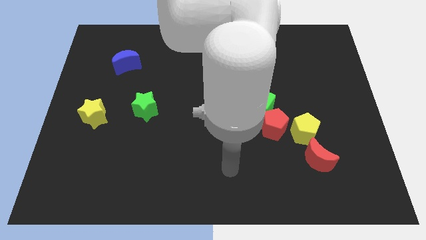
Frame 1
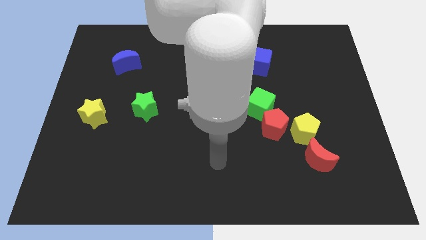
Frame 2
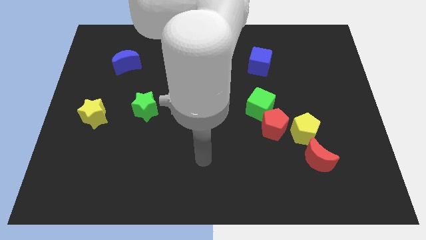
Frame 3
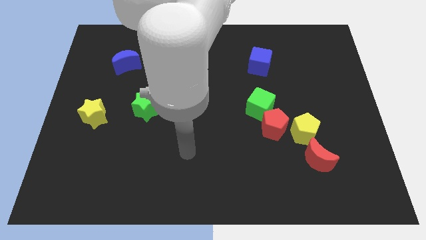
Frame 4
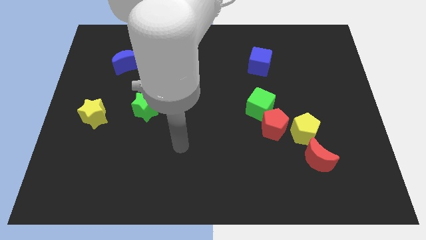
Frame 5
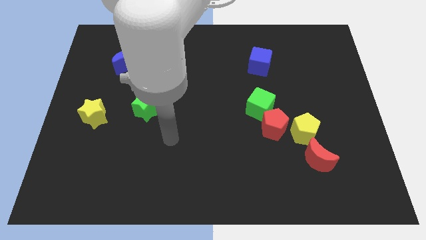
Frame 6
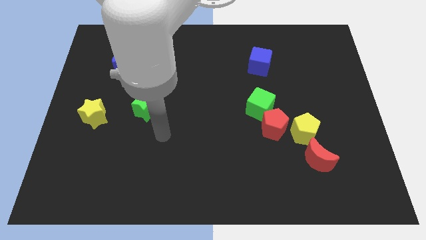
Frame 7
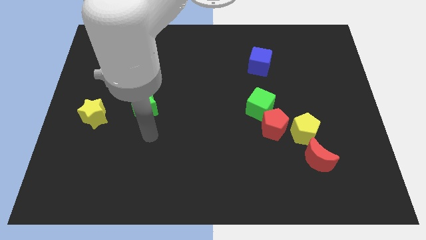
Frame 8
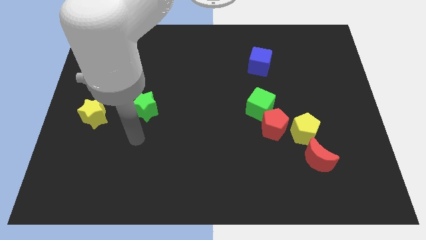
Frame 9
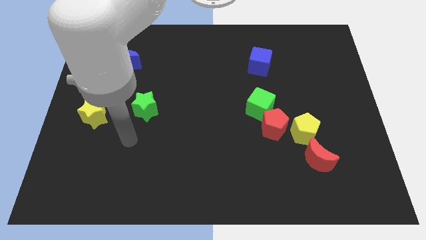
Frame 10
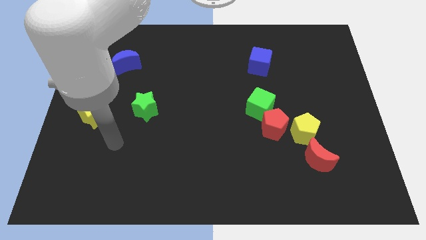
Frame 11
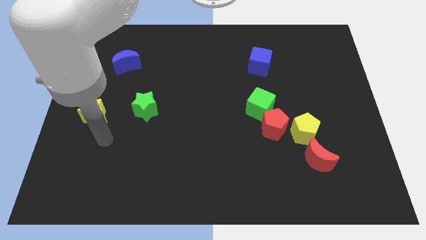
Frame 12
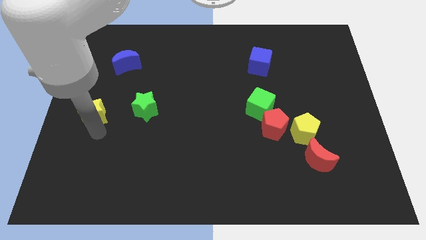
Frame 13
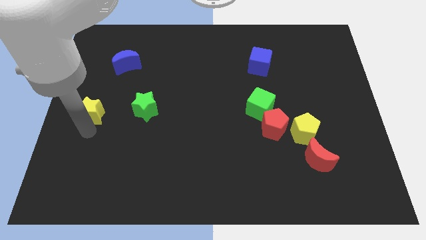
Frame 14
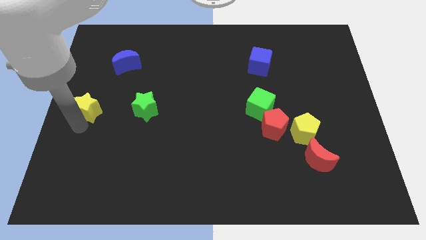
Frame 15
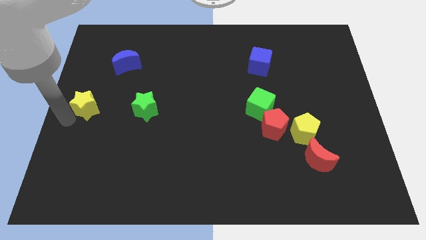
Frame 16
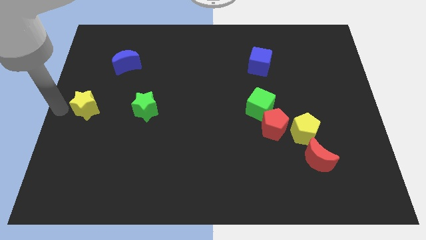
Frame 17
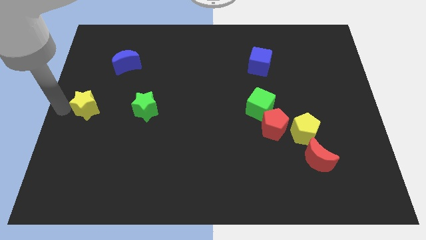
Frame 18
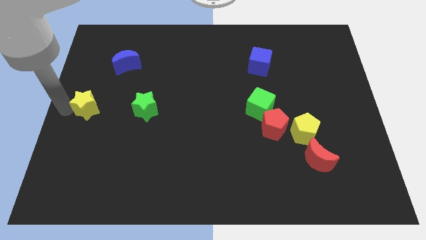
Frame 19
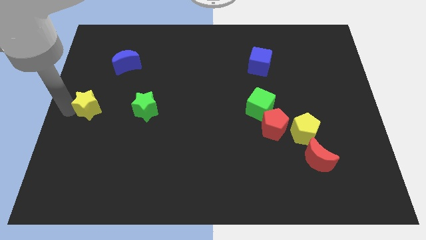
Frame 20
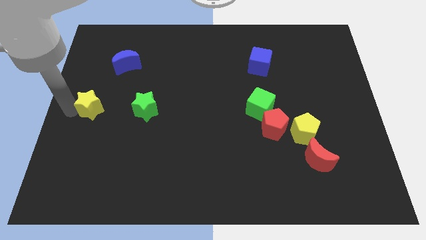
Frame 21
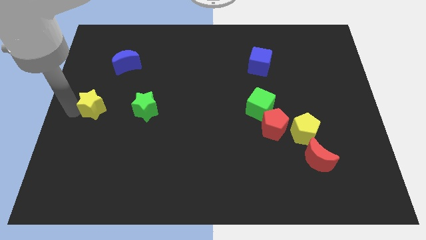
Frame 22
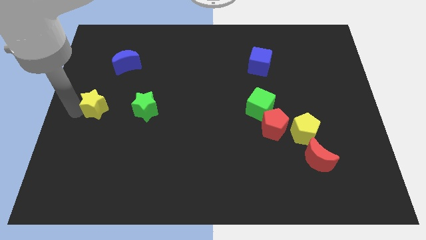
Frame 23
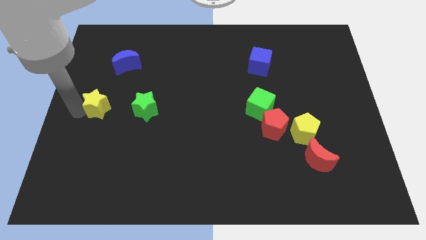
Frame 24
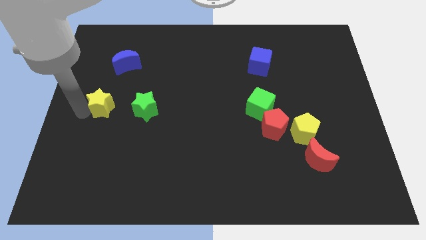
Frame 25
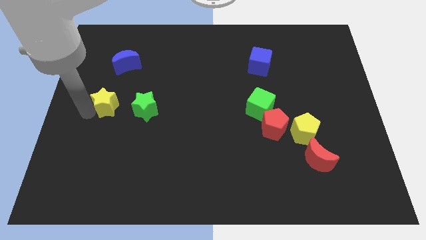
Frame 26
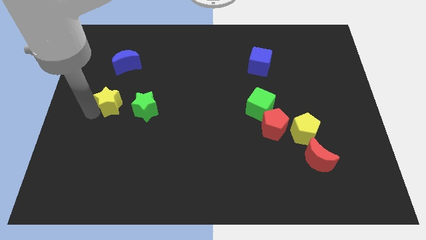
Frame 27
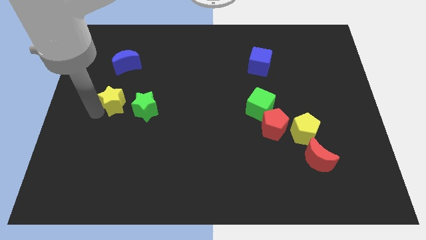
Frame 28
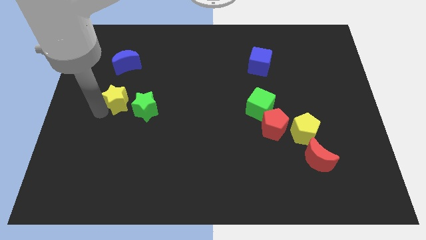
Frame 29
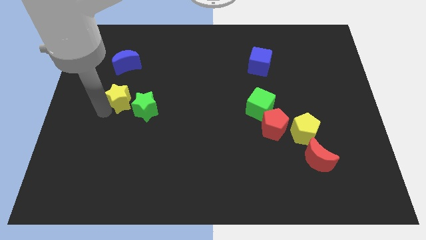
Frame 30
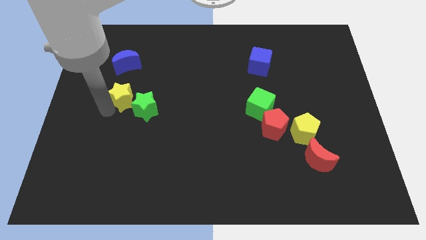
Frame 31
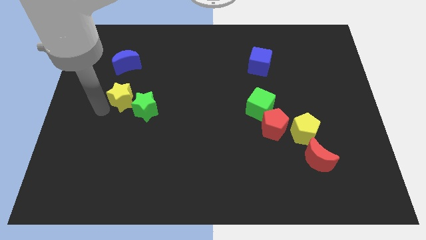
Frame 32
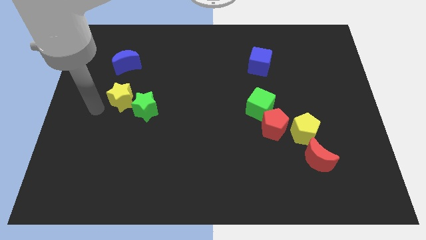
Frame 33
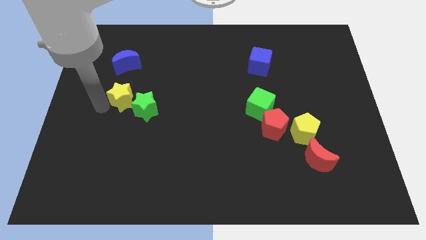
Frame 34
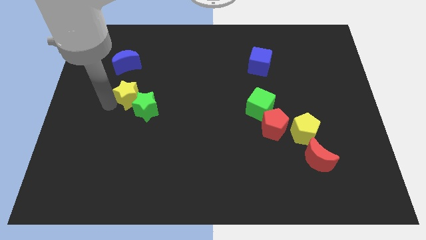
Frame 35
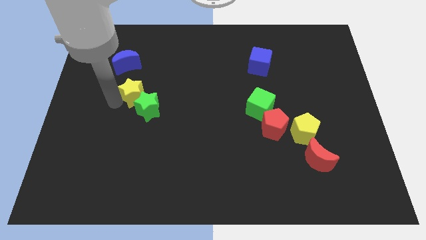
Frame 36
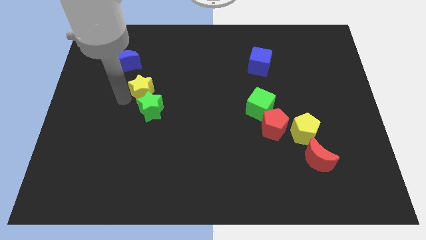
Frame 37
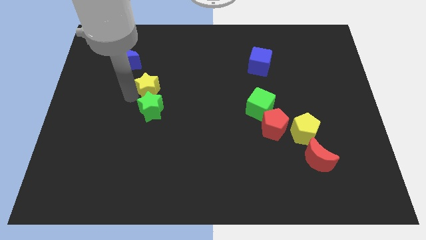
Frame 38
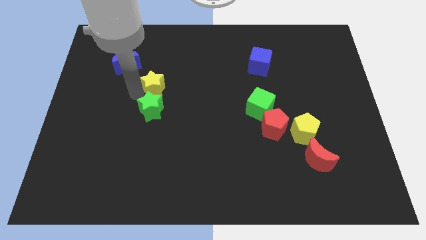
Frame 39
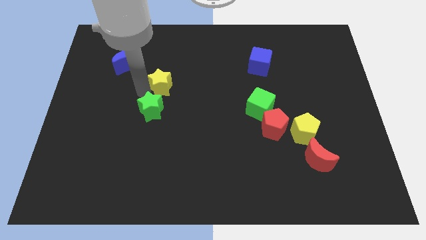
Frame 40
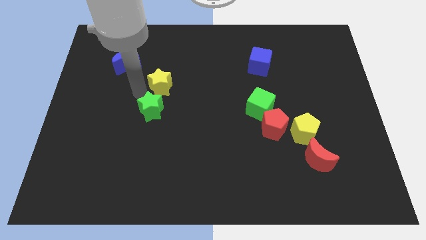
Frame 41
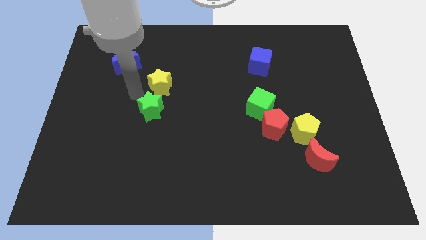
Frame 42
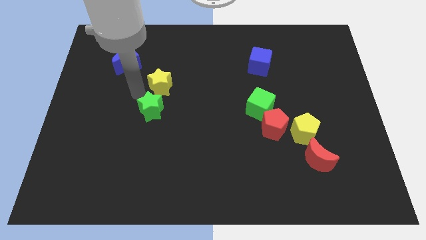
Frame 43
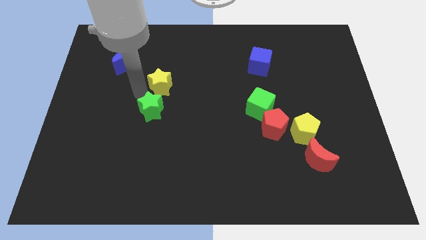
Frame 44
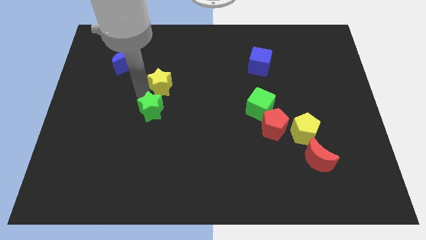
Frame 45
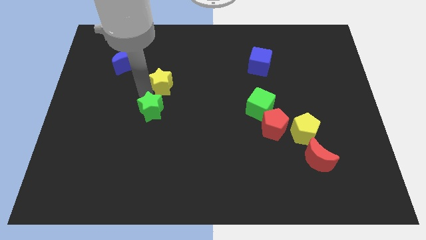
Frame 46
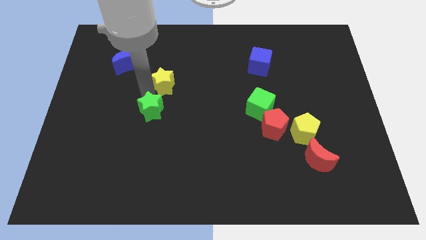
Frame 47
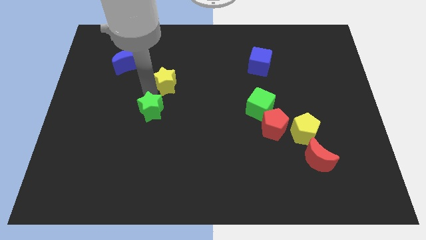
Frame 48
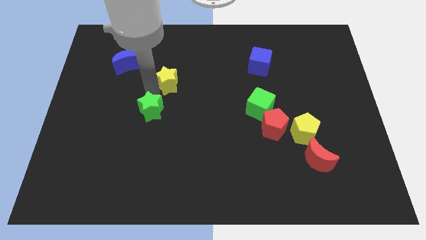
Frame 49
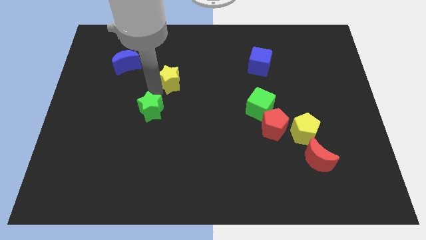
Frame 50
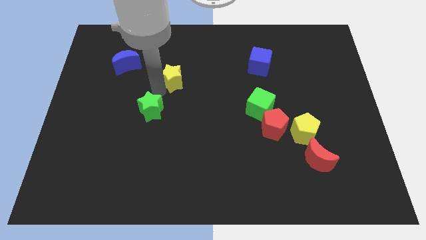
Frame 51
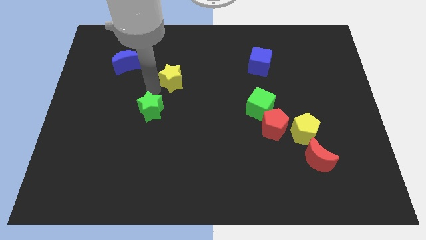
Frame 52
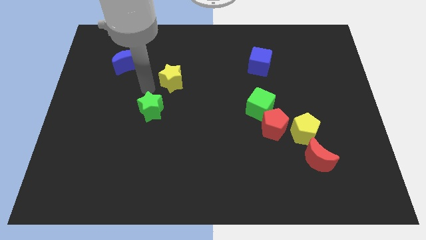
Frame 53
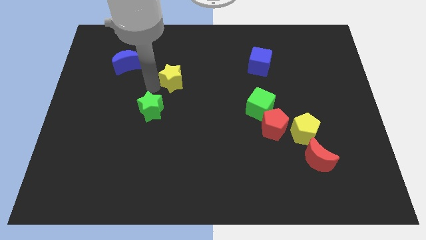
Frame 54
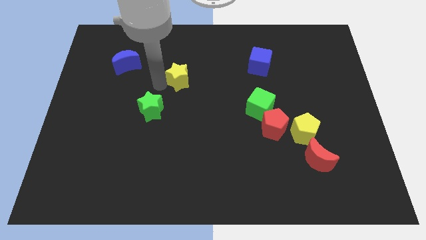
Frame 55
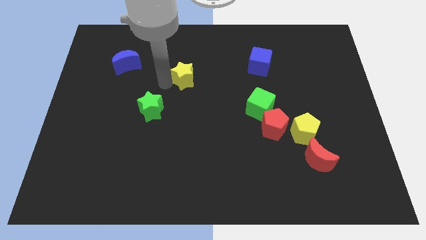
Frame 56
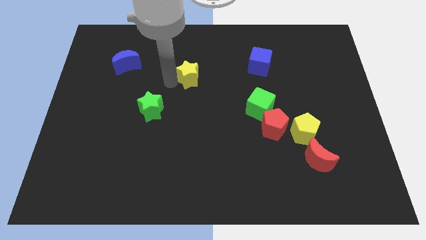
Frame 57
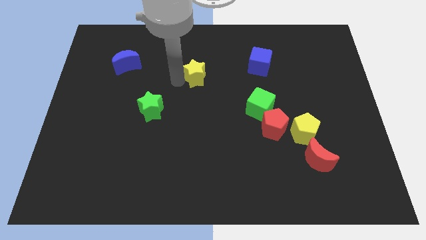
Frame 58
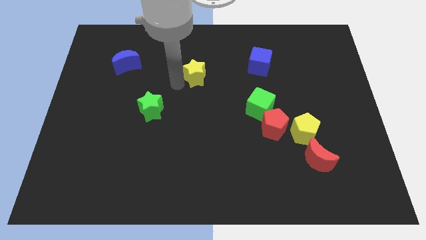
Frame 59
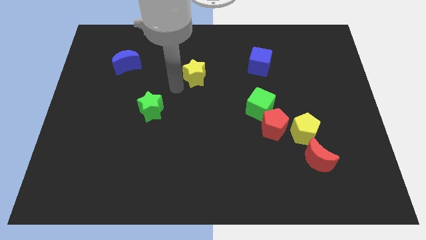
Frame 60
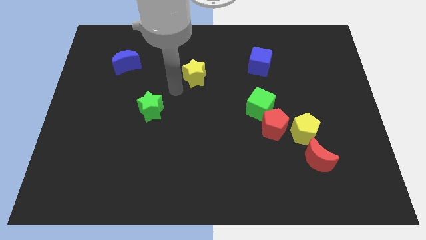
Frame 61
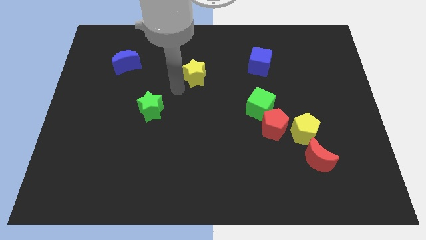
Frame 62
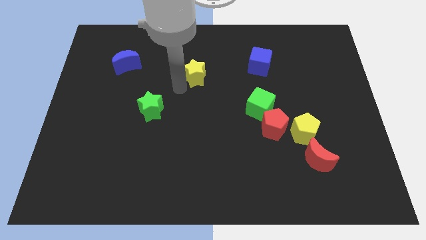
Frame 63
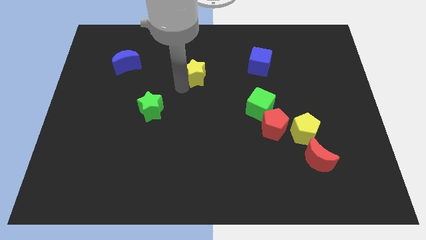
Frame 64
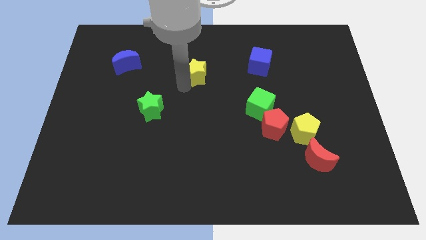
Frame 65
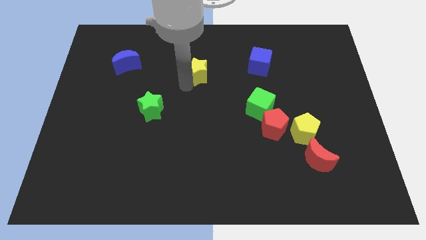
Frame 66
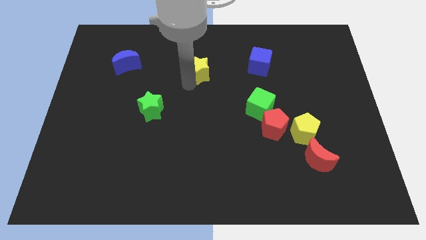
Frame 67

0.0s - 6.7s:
put the yellow star just left of the blue cube

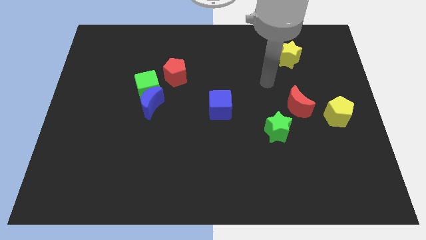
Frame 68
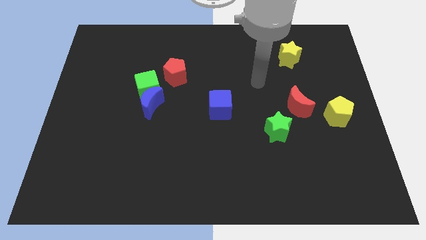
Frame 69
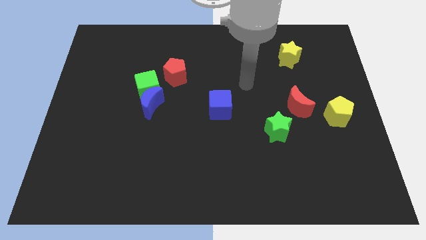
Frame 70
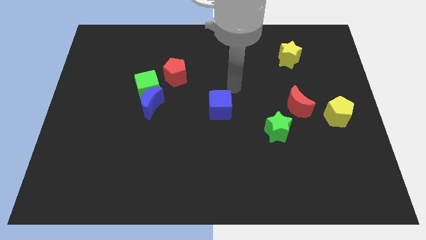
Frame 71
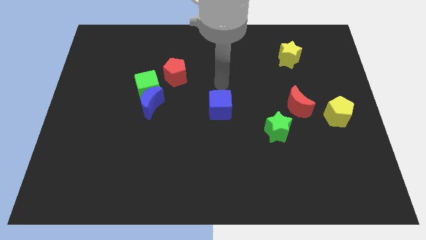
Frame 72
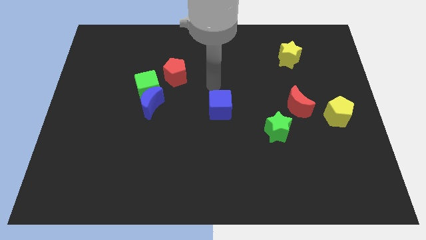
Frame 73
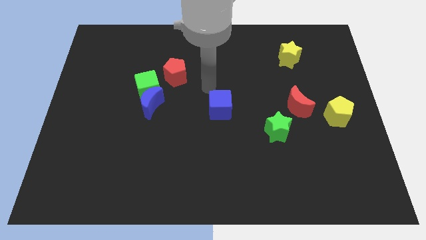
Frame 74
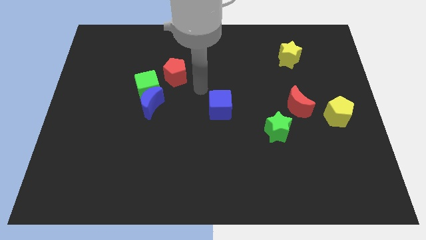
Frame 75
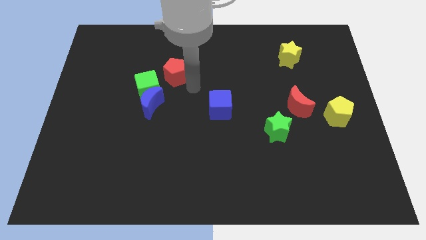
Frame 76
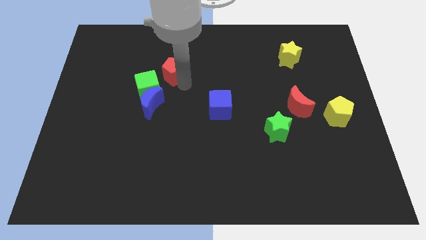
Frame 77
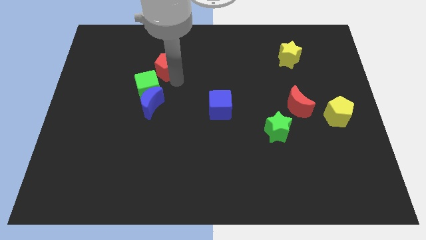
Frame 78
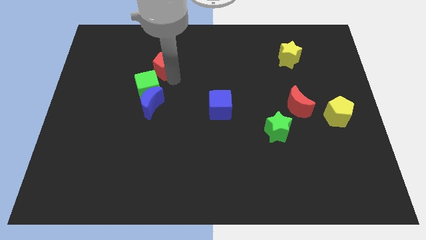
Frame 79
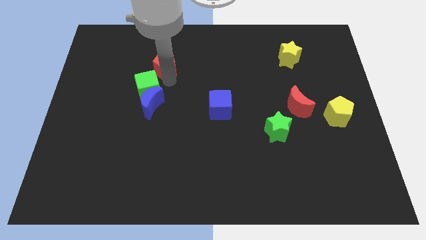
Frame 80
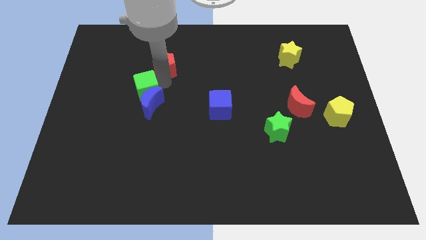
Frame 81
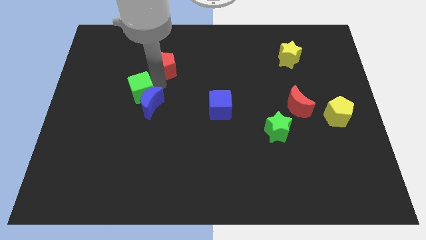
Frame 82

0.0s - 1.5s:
move the green cube to the left side of the blue moon
